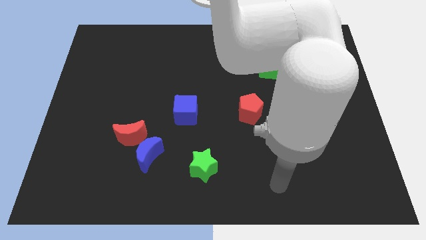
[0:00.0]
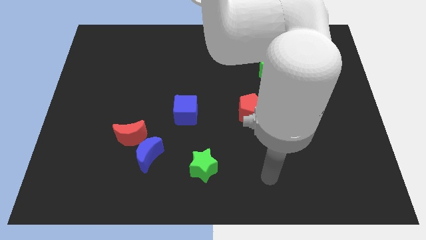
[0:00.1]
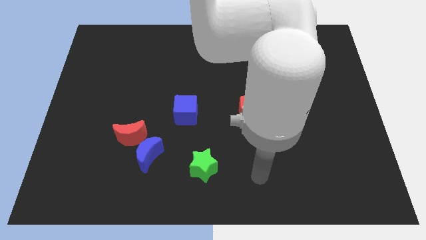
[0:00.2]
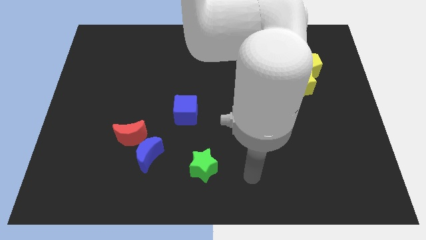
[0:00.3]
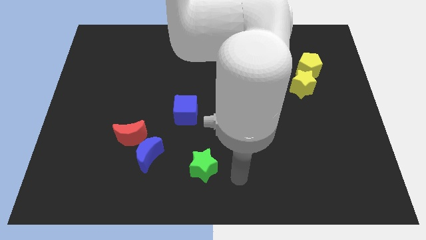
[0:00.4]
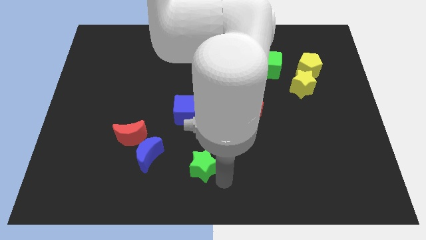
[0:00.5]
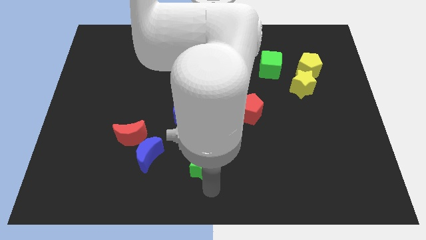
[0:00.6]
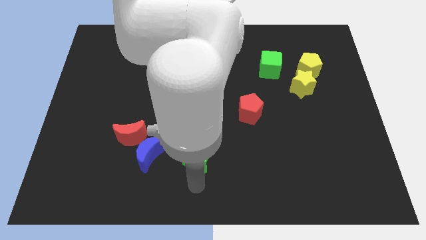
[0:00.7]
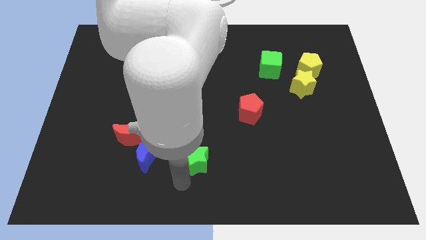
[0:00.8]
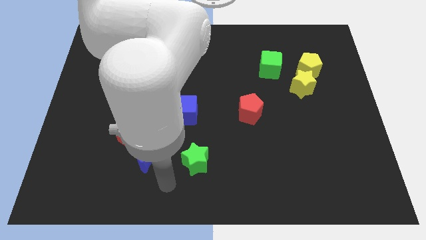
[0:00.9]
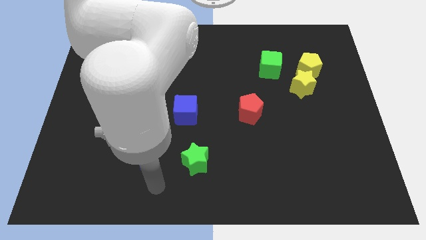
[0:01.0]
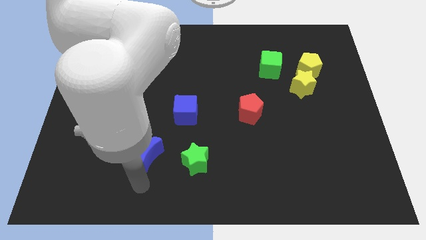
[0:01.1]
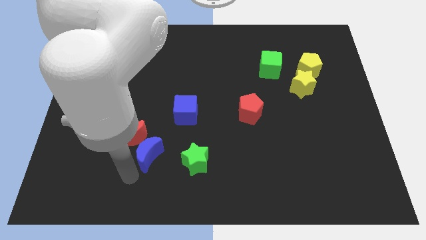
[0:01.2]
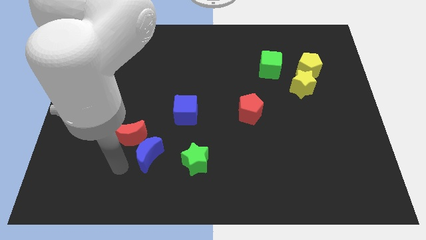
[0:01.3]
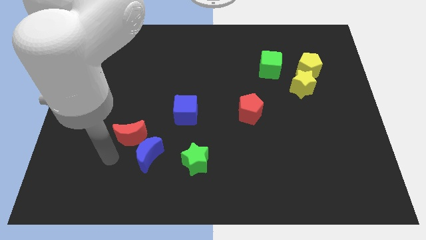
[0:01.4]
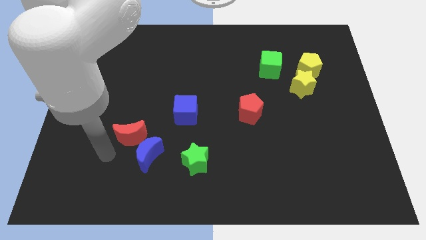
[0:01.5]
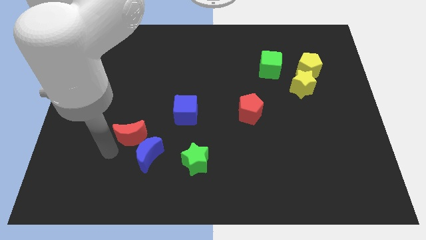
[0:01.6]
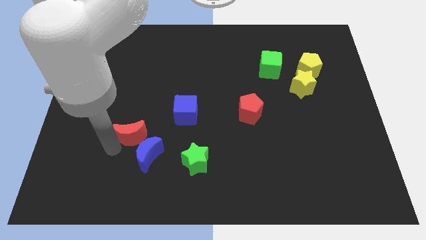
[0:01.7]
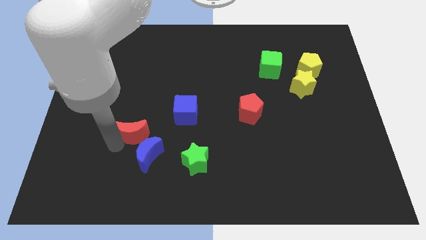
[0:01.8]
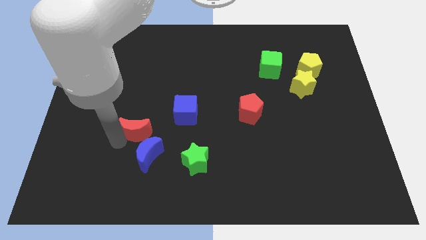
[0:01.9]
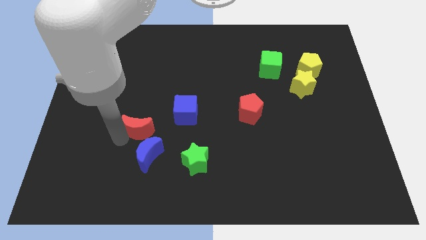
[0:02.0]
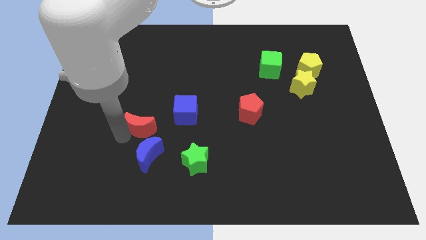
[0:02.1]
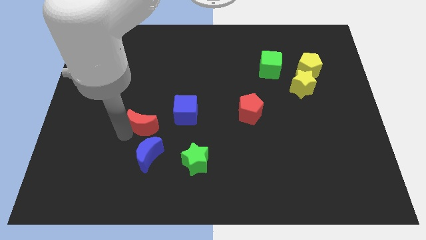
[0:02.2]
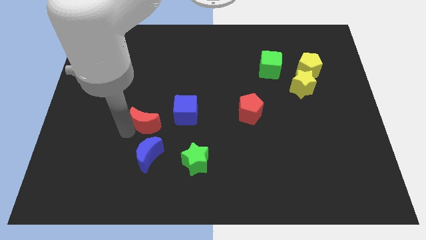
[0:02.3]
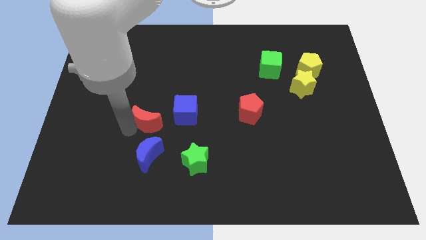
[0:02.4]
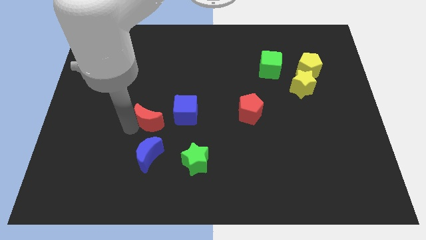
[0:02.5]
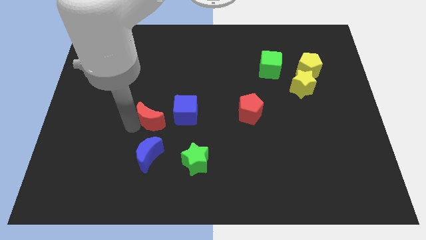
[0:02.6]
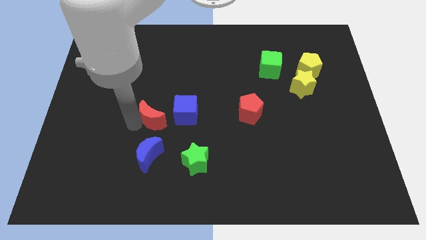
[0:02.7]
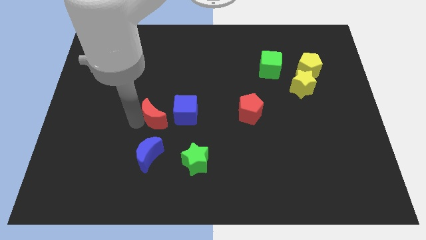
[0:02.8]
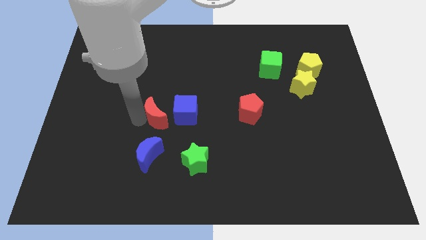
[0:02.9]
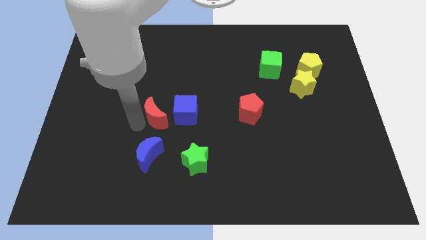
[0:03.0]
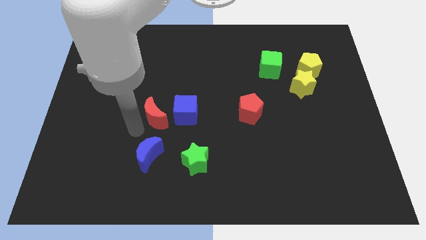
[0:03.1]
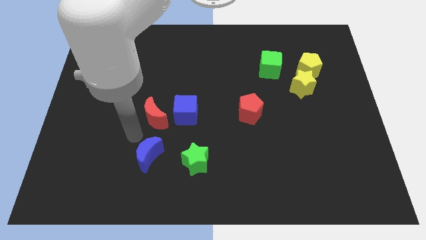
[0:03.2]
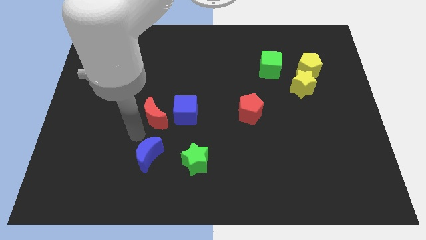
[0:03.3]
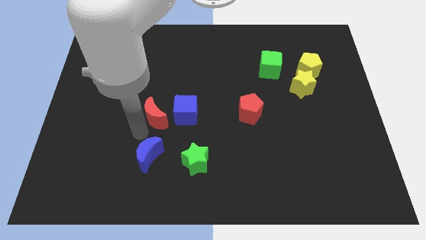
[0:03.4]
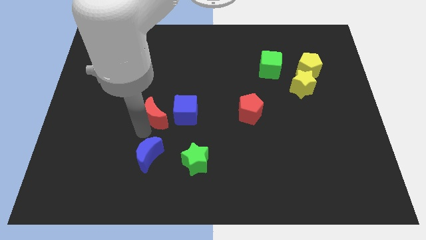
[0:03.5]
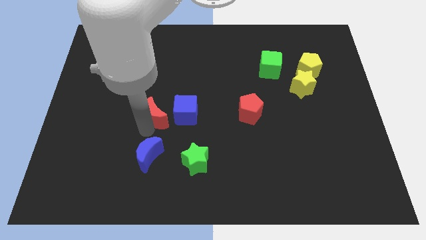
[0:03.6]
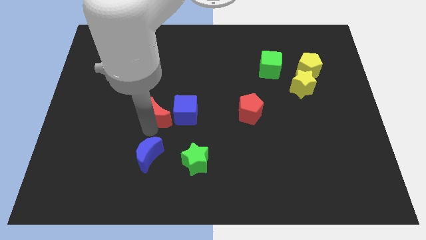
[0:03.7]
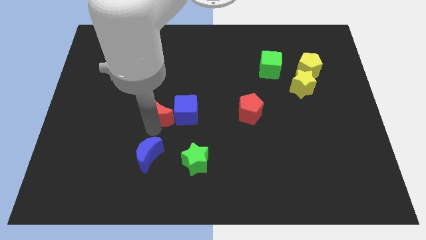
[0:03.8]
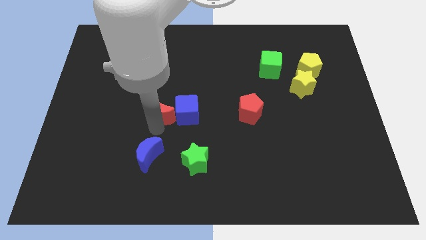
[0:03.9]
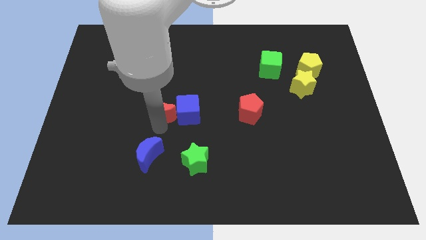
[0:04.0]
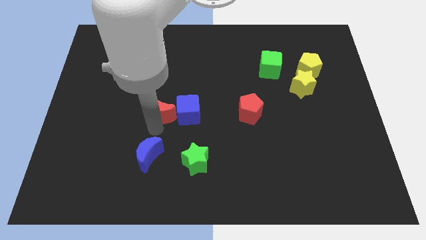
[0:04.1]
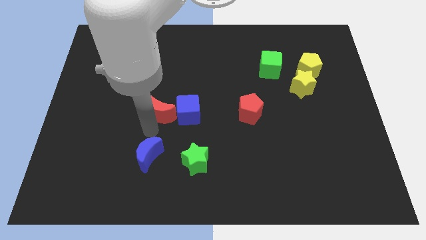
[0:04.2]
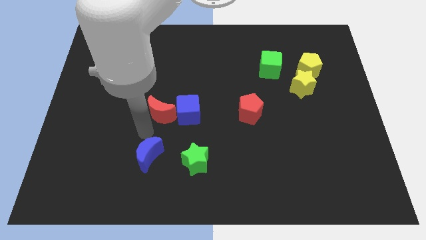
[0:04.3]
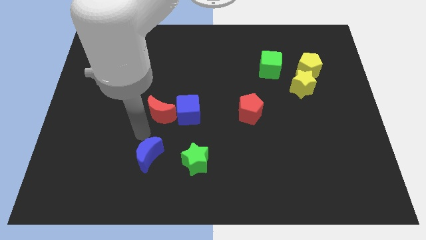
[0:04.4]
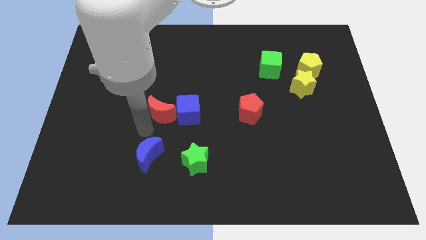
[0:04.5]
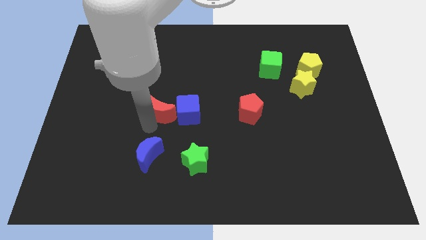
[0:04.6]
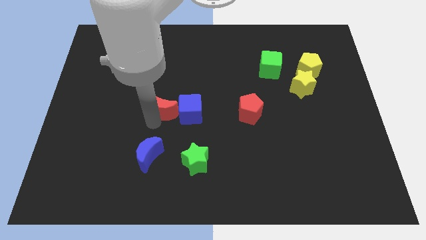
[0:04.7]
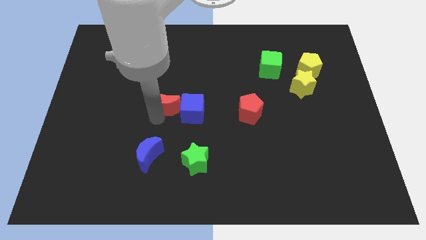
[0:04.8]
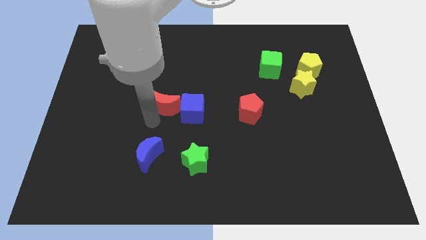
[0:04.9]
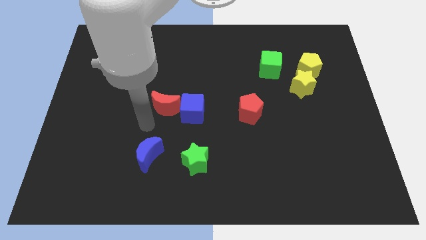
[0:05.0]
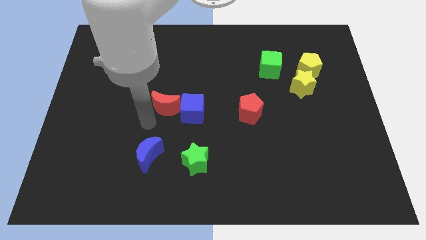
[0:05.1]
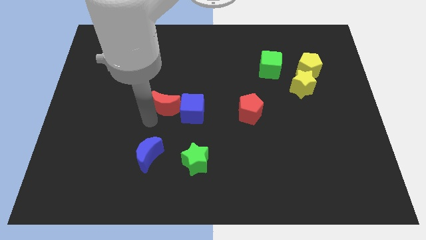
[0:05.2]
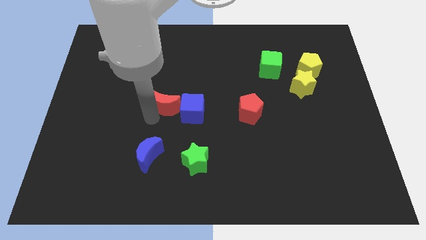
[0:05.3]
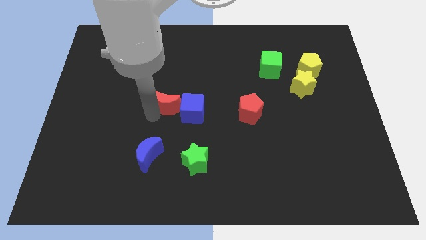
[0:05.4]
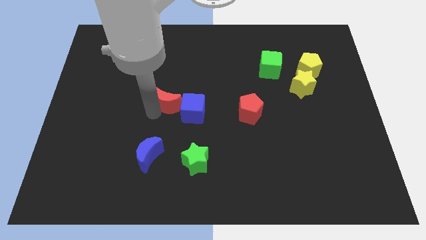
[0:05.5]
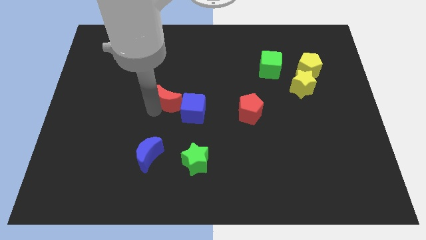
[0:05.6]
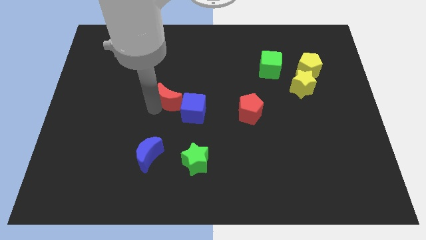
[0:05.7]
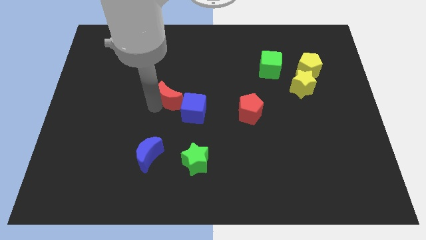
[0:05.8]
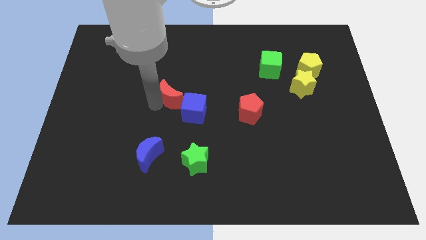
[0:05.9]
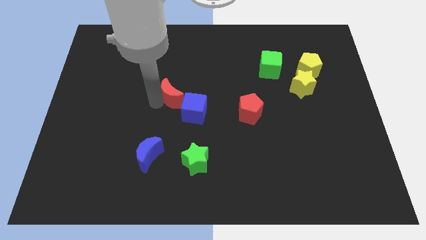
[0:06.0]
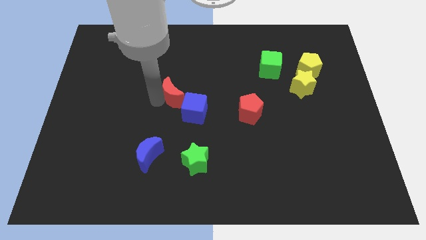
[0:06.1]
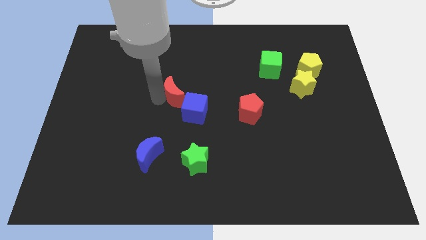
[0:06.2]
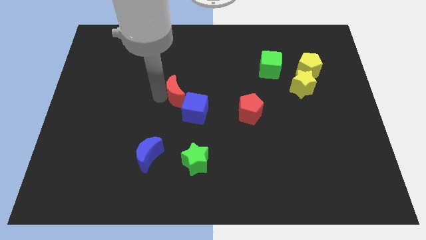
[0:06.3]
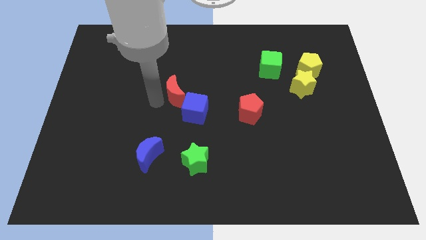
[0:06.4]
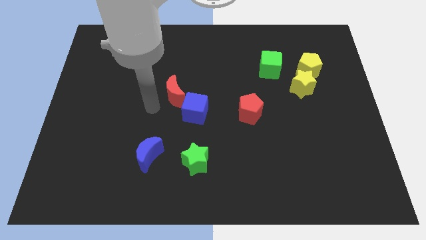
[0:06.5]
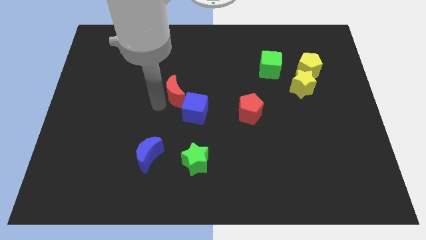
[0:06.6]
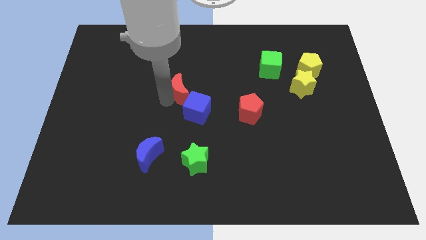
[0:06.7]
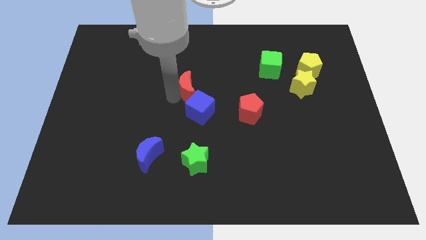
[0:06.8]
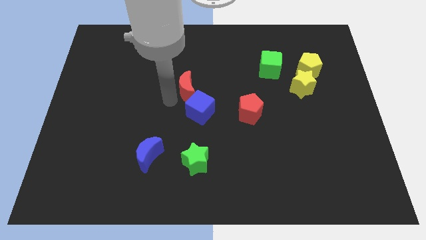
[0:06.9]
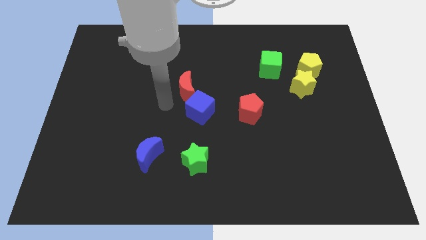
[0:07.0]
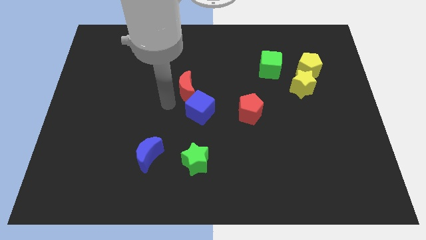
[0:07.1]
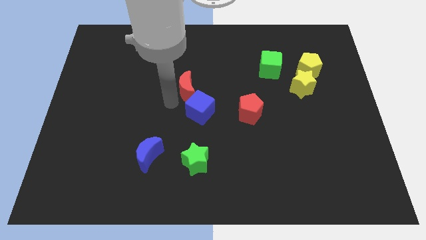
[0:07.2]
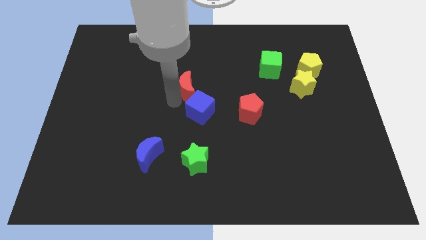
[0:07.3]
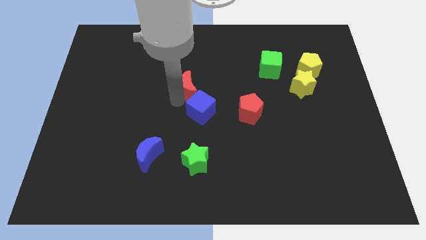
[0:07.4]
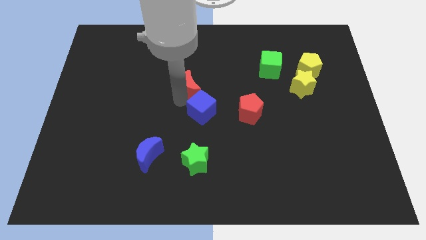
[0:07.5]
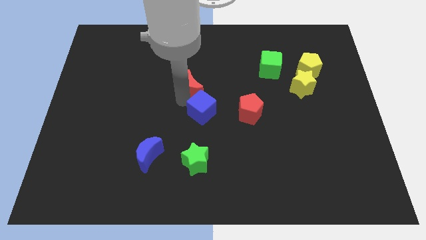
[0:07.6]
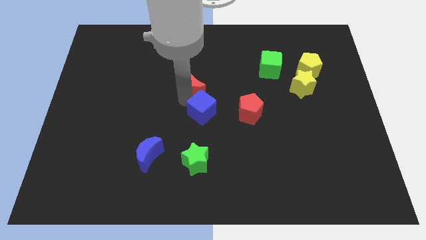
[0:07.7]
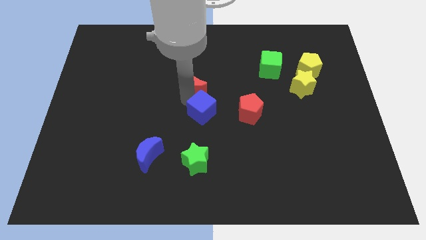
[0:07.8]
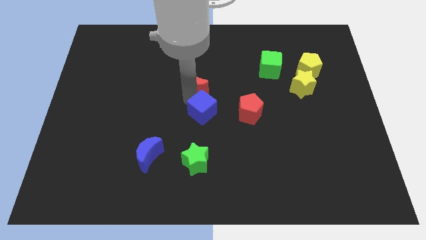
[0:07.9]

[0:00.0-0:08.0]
slide the red moon diagonally upwards and right
